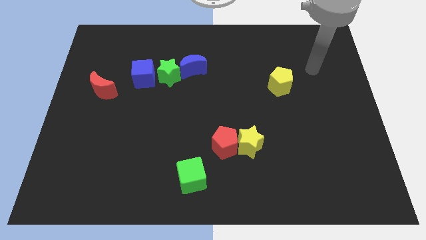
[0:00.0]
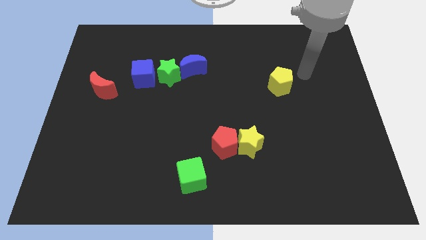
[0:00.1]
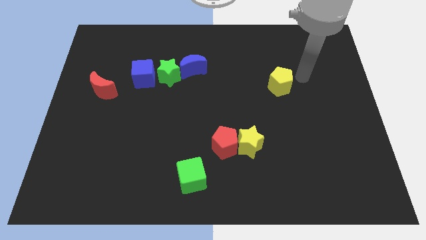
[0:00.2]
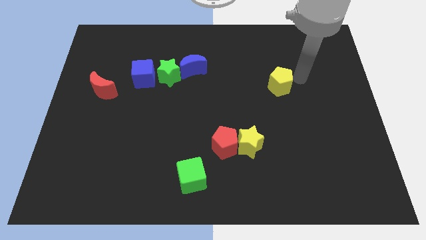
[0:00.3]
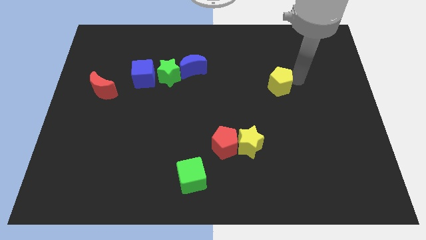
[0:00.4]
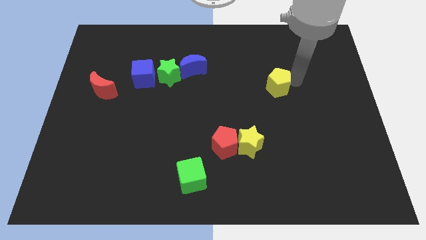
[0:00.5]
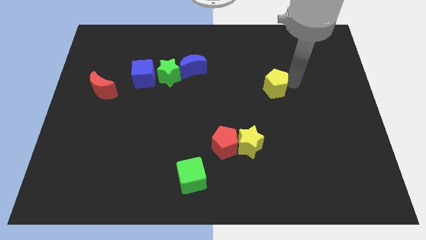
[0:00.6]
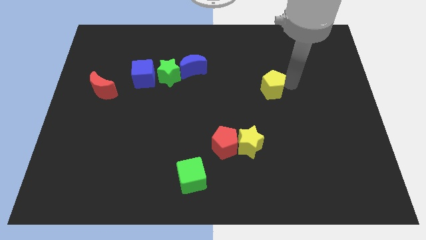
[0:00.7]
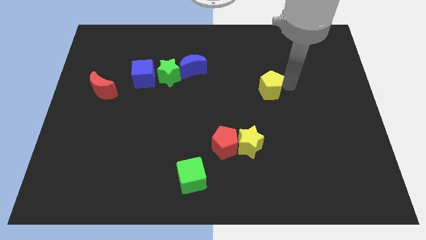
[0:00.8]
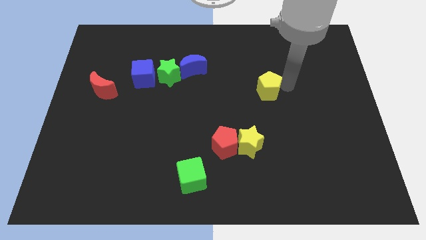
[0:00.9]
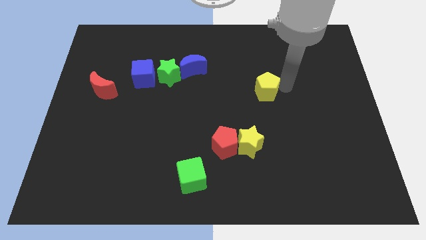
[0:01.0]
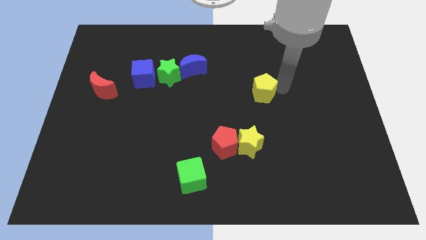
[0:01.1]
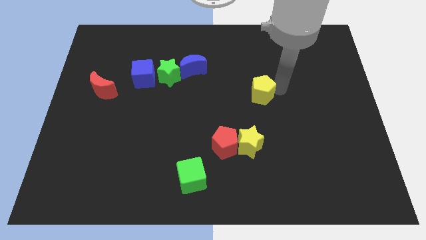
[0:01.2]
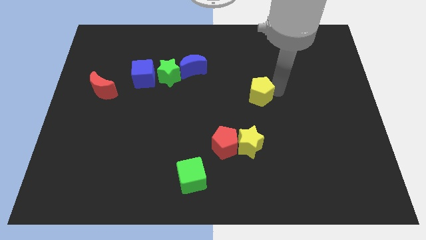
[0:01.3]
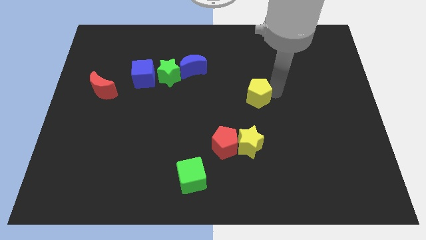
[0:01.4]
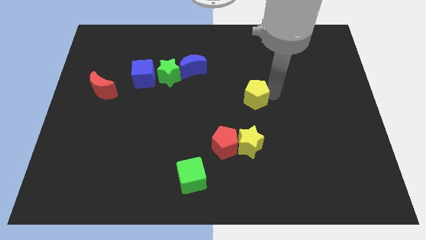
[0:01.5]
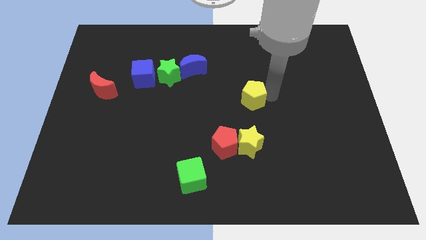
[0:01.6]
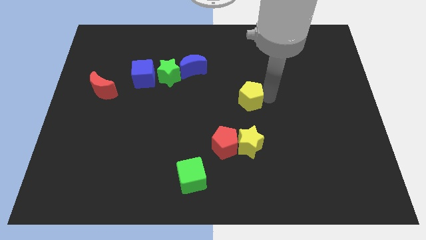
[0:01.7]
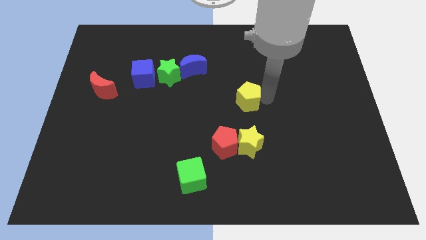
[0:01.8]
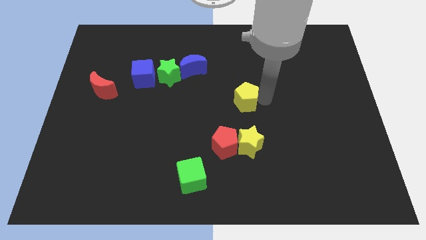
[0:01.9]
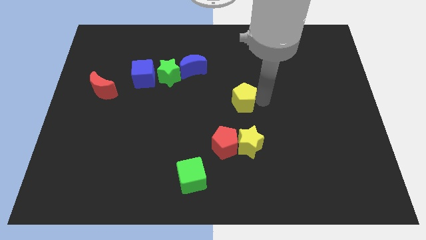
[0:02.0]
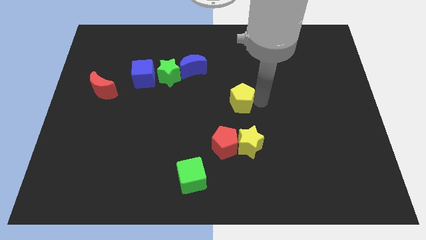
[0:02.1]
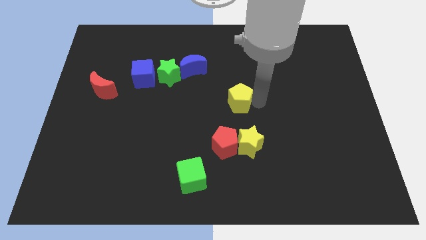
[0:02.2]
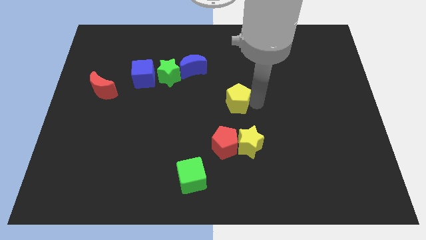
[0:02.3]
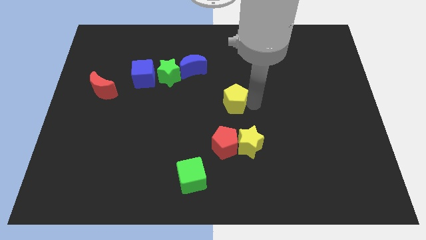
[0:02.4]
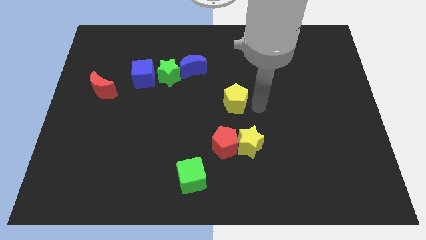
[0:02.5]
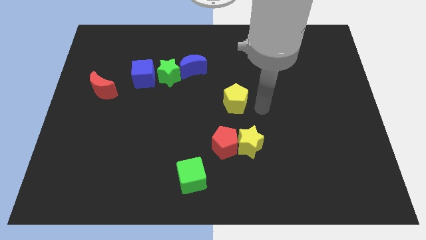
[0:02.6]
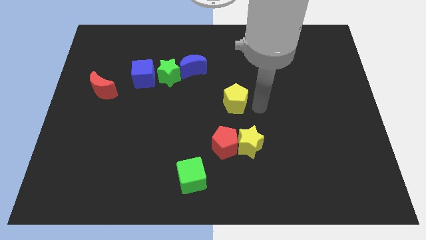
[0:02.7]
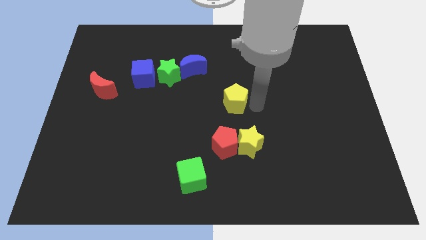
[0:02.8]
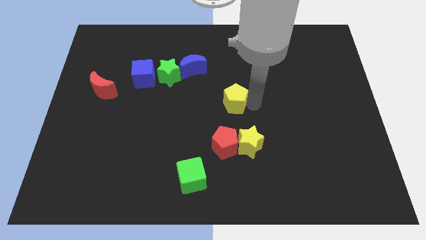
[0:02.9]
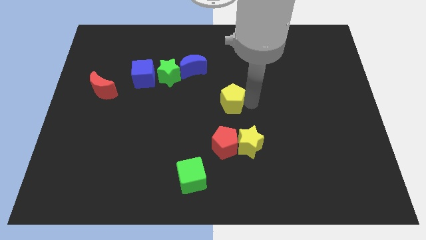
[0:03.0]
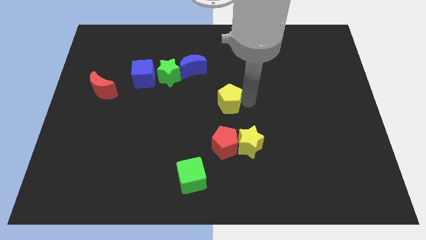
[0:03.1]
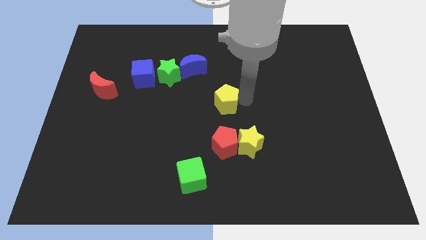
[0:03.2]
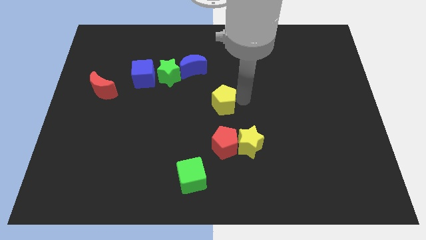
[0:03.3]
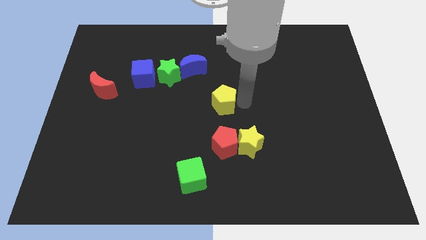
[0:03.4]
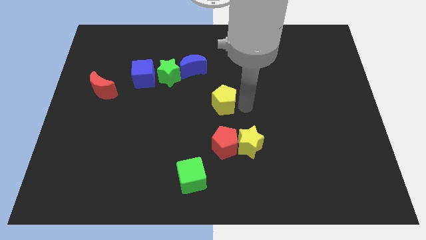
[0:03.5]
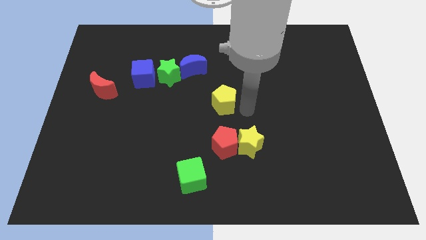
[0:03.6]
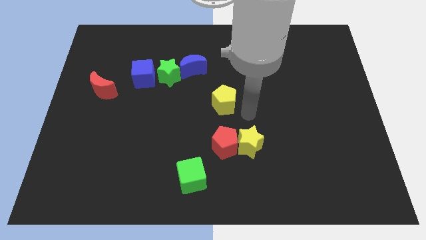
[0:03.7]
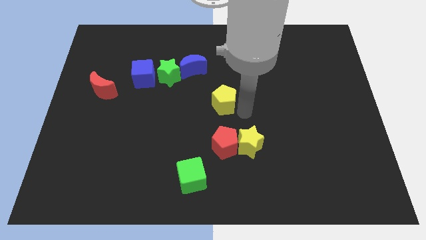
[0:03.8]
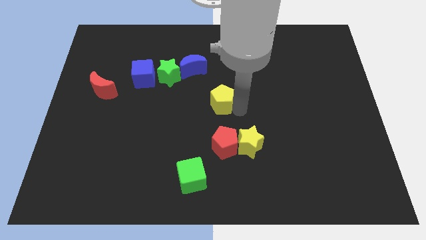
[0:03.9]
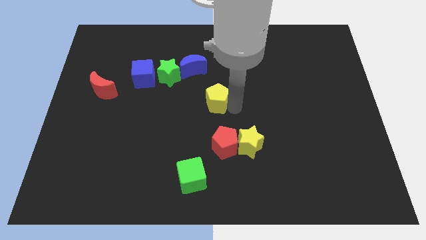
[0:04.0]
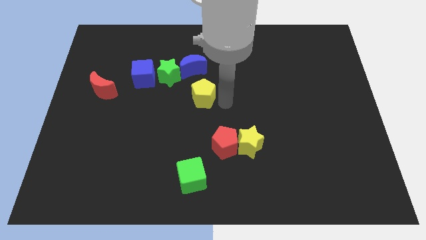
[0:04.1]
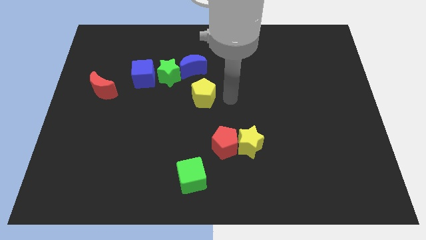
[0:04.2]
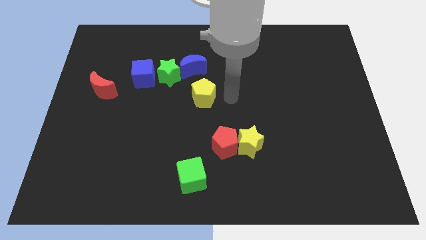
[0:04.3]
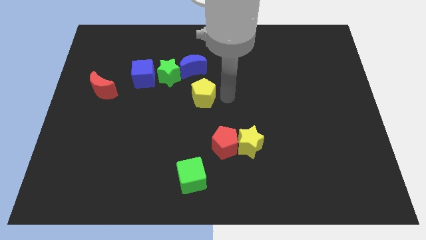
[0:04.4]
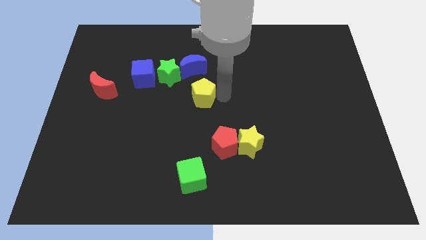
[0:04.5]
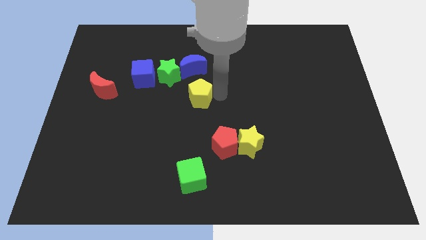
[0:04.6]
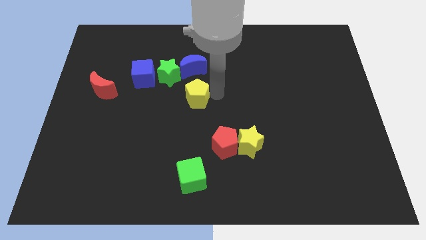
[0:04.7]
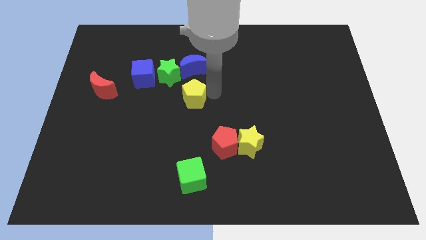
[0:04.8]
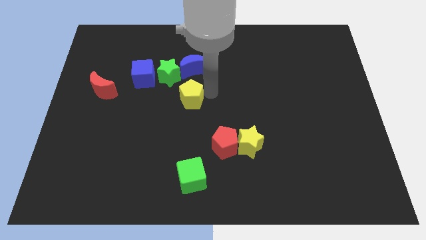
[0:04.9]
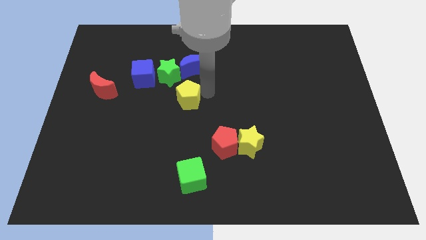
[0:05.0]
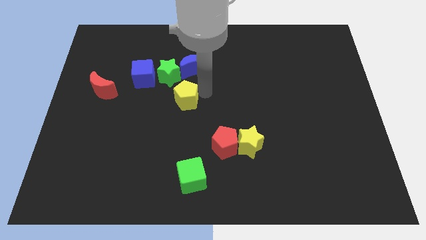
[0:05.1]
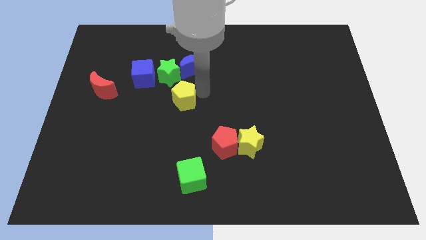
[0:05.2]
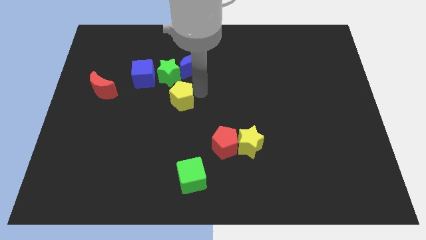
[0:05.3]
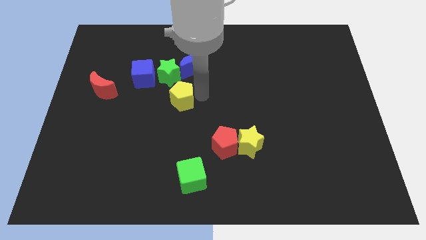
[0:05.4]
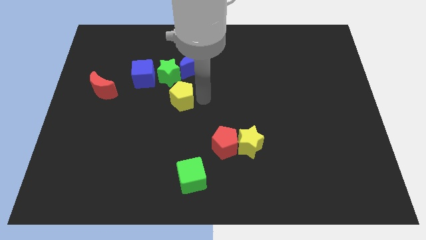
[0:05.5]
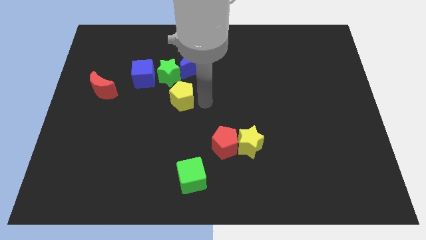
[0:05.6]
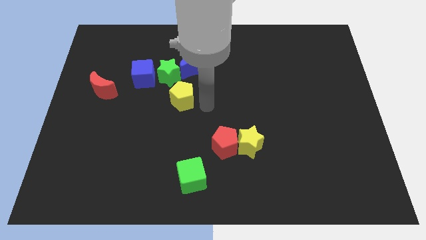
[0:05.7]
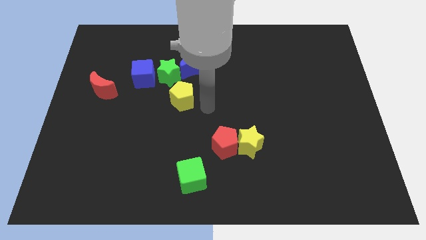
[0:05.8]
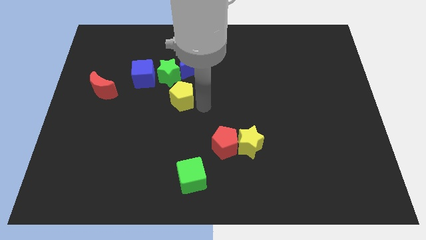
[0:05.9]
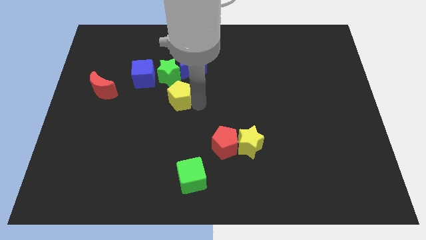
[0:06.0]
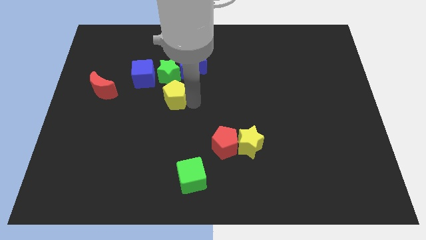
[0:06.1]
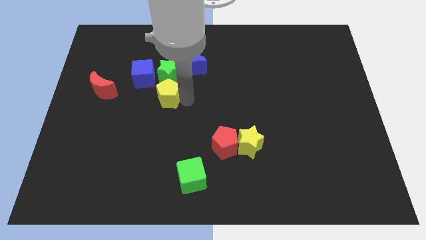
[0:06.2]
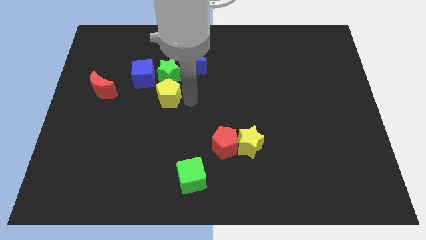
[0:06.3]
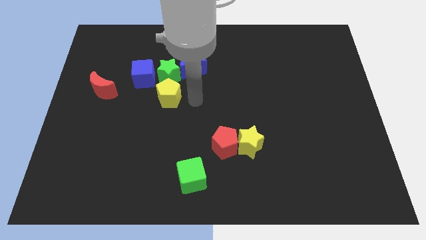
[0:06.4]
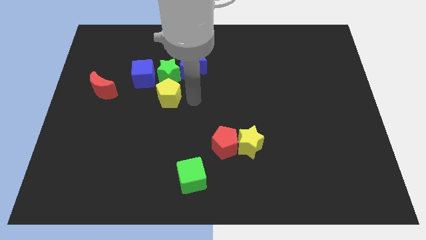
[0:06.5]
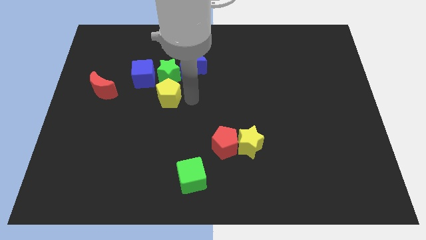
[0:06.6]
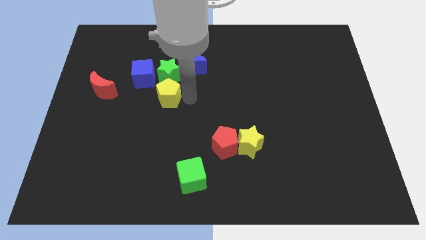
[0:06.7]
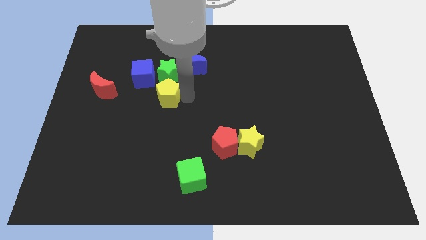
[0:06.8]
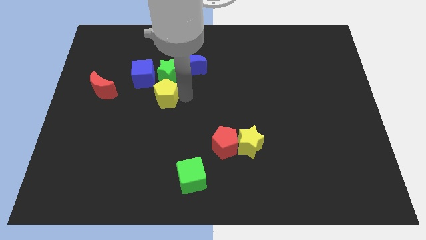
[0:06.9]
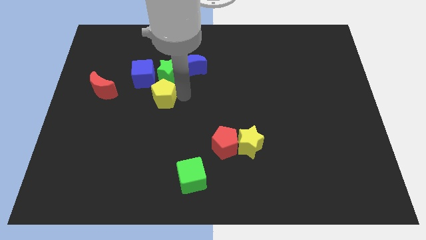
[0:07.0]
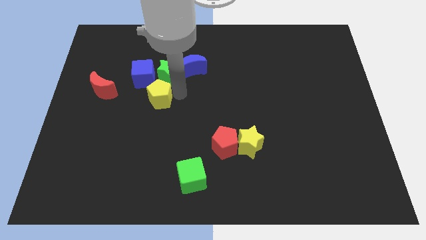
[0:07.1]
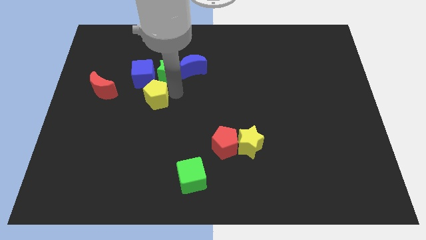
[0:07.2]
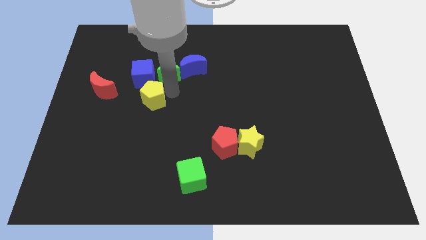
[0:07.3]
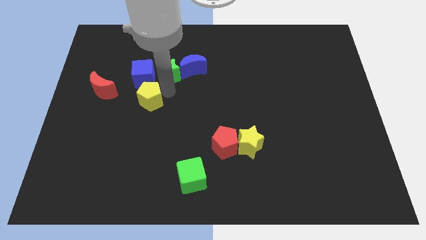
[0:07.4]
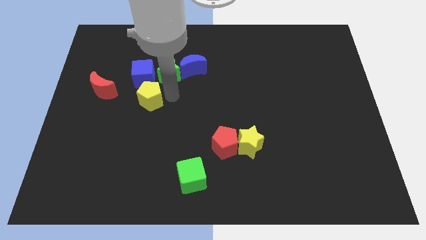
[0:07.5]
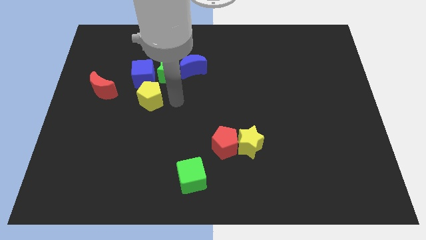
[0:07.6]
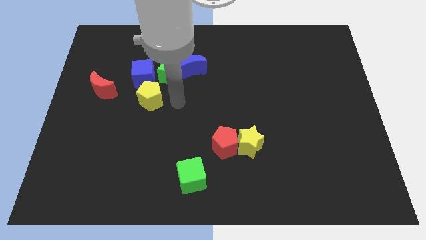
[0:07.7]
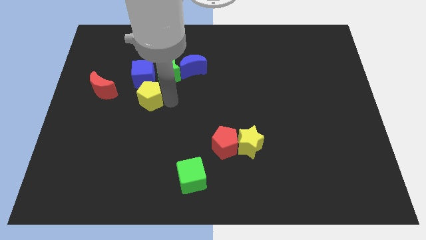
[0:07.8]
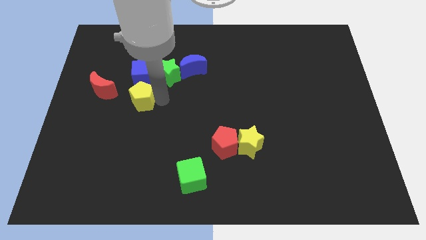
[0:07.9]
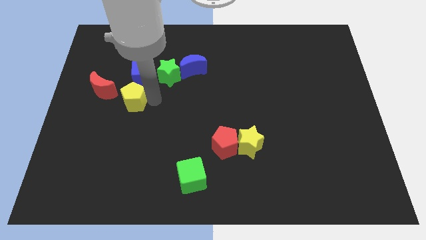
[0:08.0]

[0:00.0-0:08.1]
put the yellow pentagon to the bottom left side of the blue cube

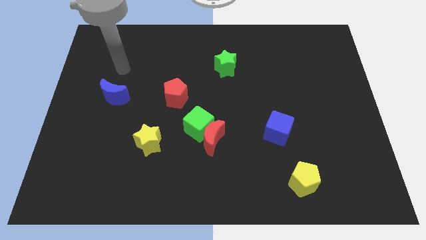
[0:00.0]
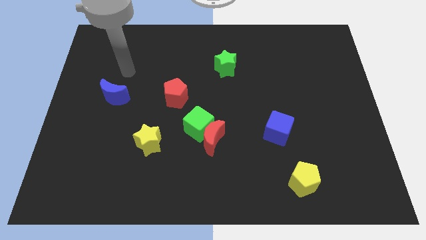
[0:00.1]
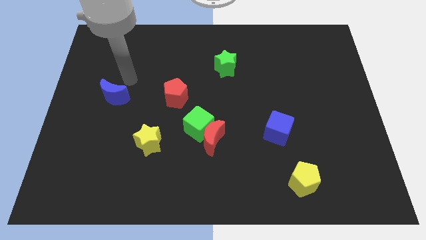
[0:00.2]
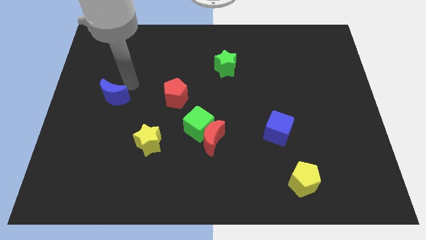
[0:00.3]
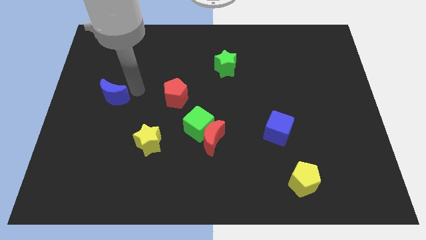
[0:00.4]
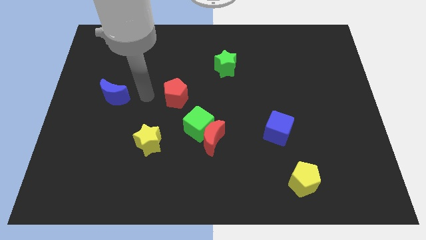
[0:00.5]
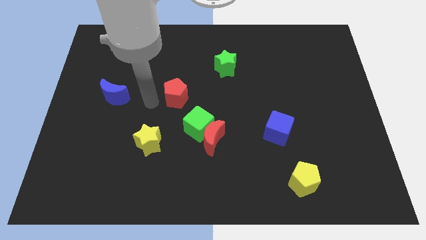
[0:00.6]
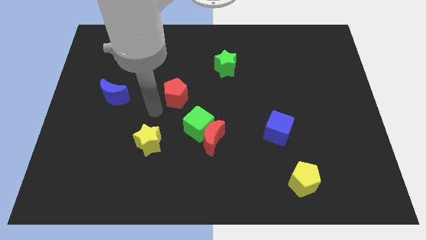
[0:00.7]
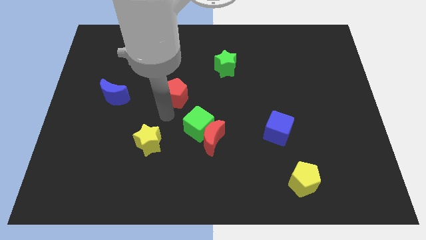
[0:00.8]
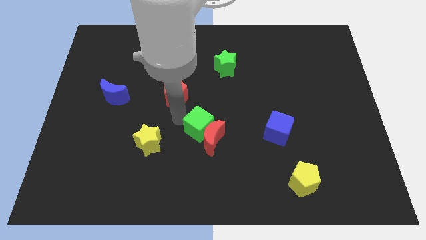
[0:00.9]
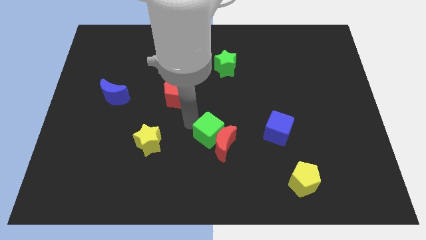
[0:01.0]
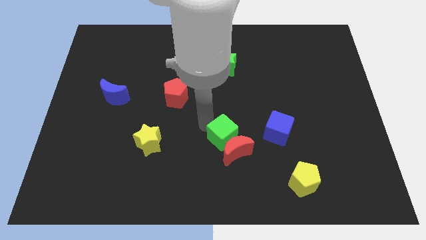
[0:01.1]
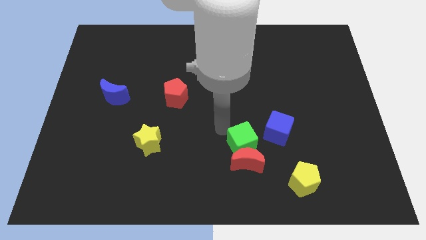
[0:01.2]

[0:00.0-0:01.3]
move the red moon just left of the yellow pentagon
